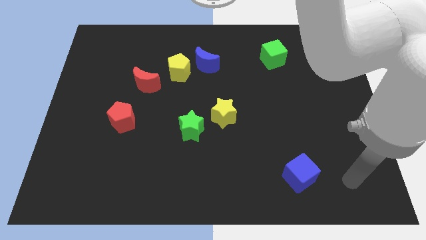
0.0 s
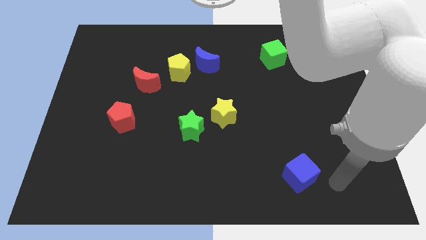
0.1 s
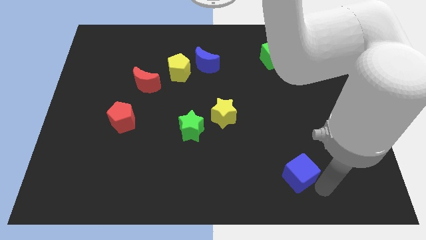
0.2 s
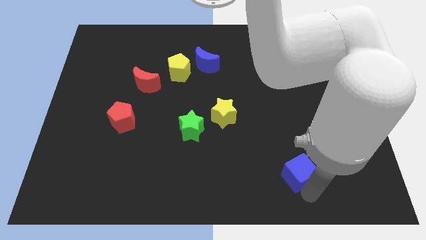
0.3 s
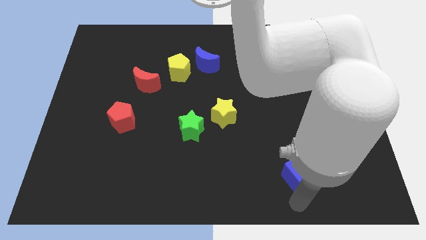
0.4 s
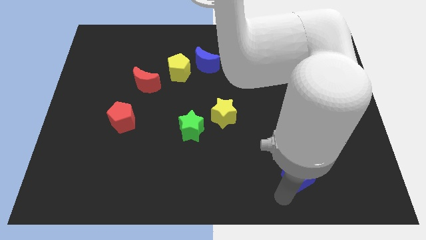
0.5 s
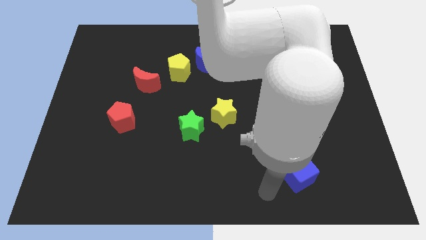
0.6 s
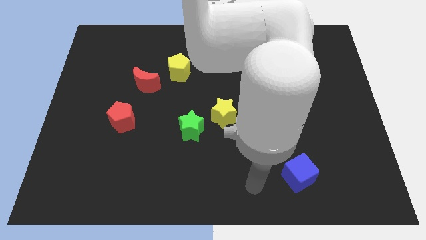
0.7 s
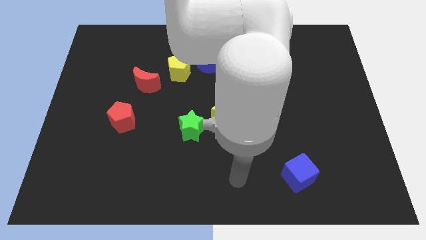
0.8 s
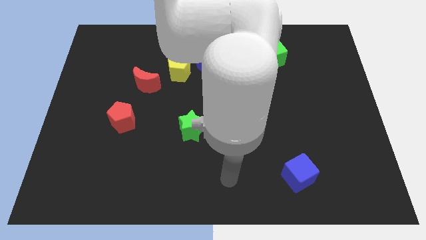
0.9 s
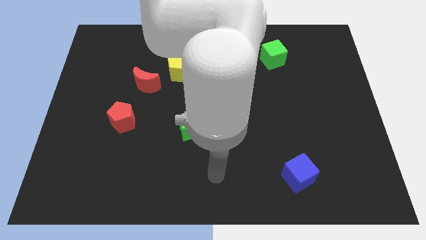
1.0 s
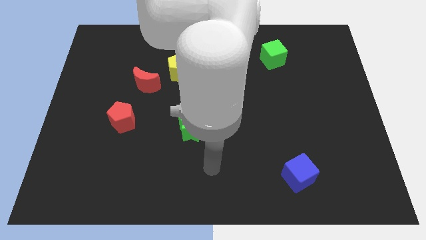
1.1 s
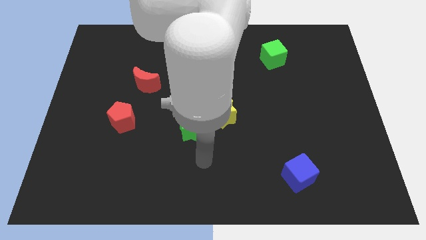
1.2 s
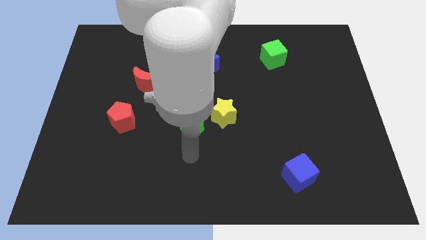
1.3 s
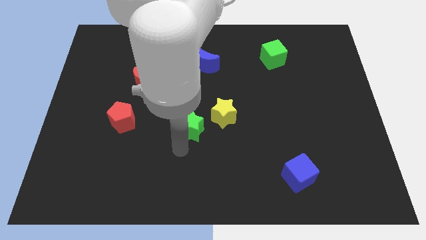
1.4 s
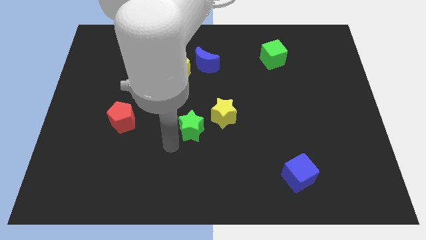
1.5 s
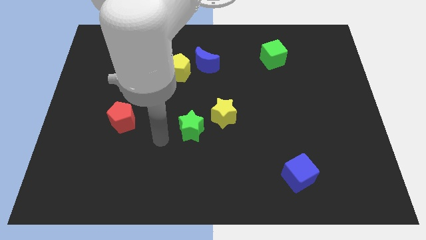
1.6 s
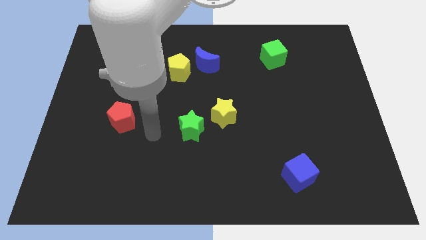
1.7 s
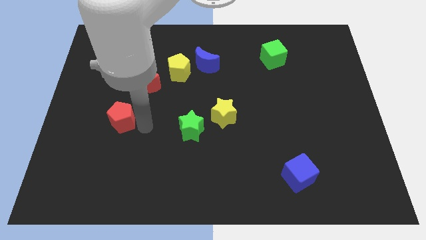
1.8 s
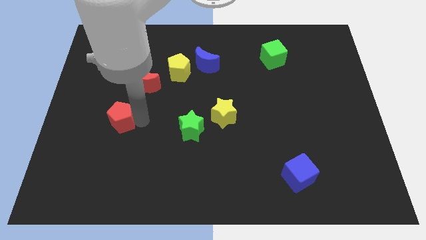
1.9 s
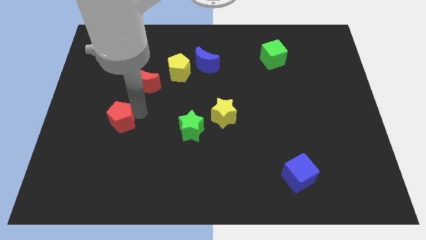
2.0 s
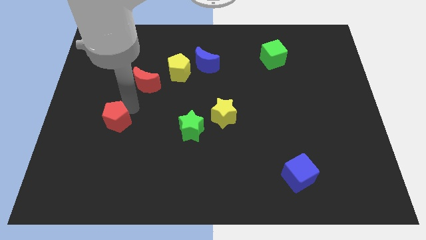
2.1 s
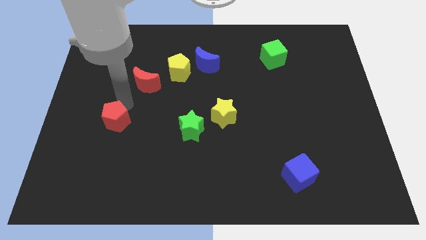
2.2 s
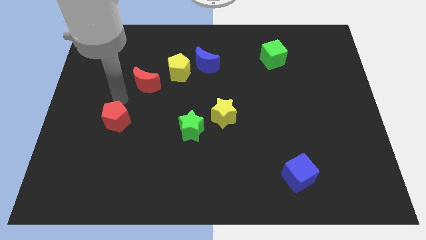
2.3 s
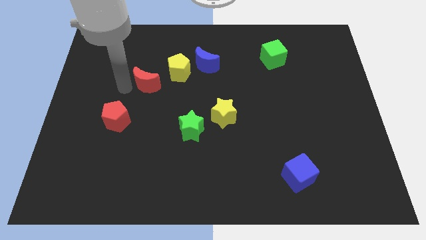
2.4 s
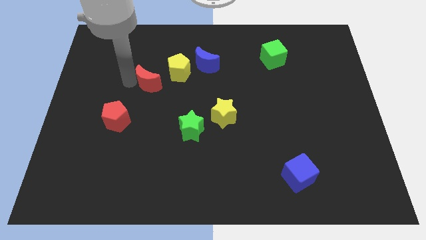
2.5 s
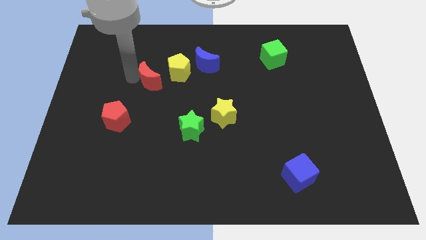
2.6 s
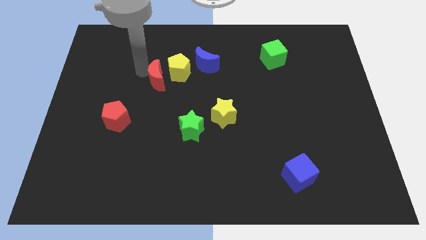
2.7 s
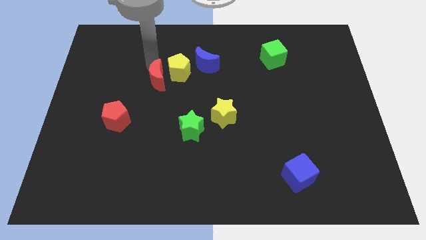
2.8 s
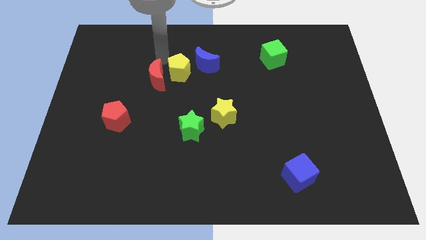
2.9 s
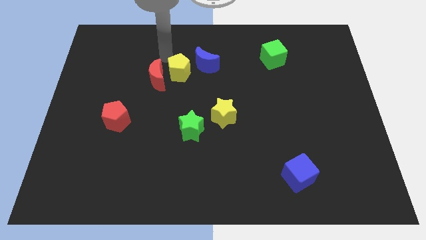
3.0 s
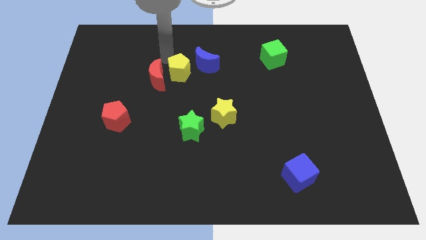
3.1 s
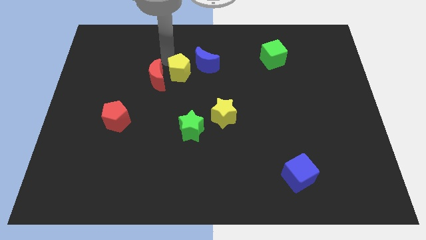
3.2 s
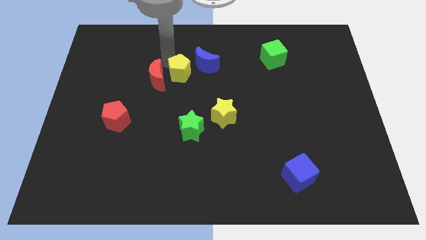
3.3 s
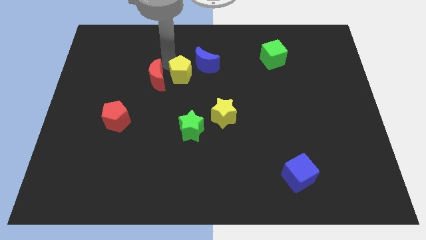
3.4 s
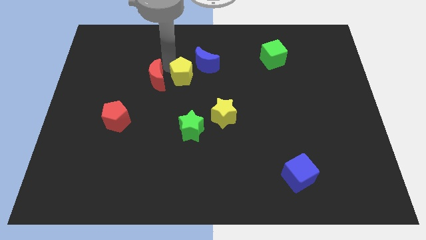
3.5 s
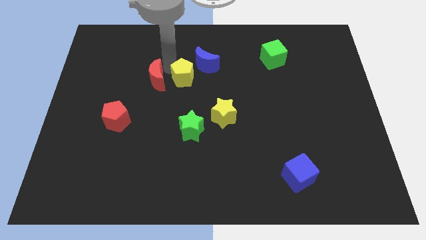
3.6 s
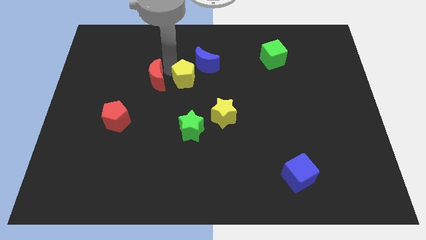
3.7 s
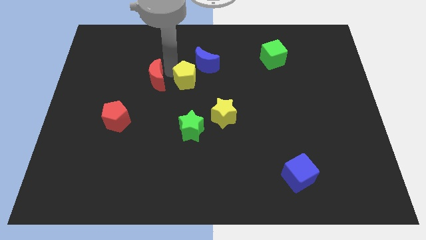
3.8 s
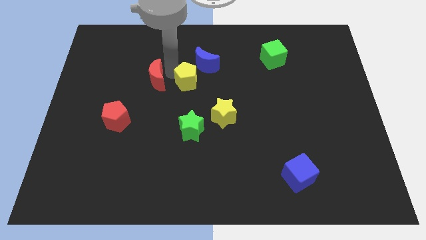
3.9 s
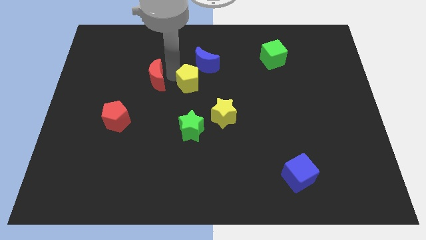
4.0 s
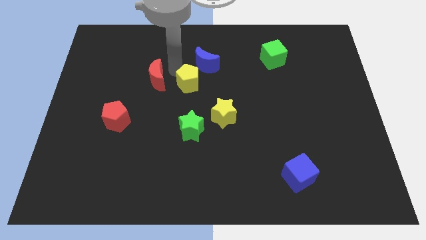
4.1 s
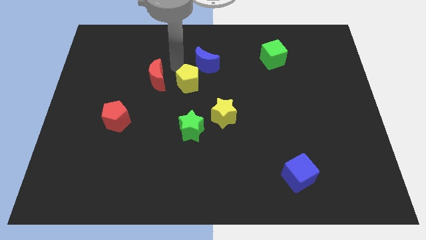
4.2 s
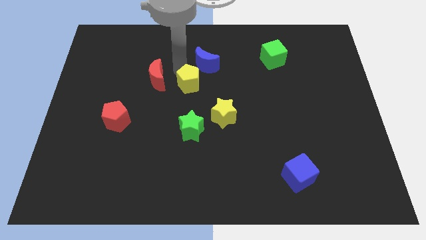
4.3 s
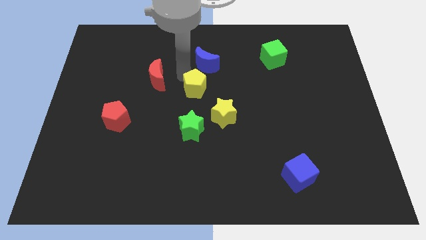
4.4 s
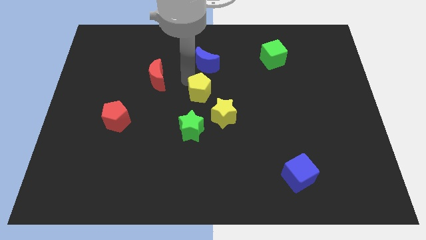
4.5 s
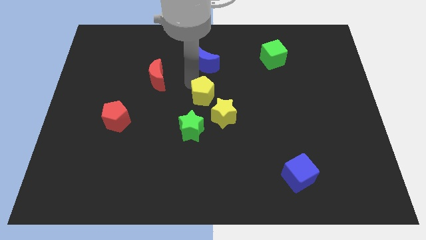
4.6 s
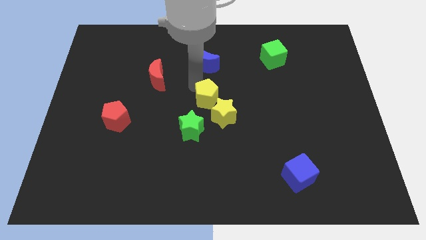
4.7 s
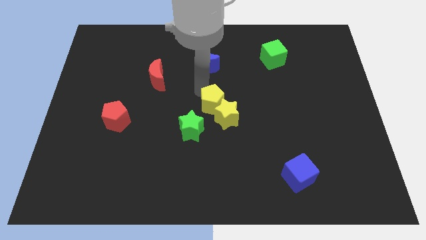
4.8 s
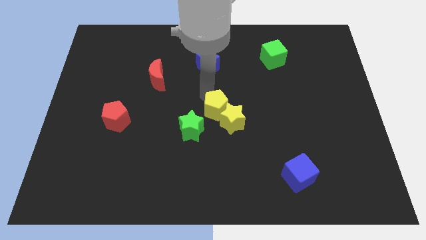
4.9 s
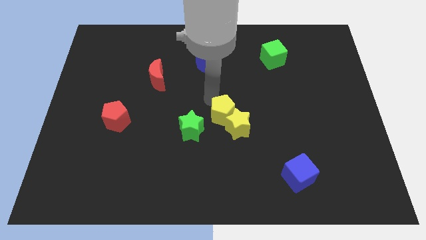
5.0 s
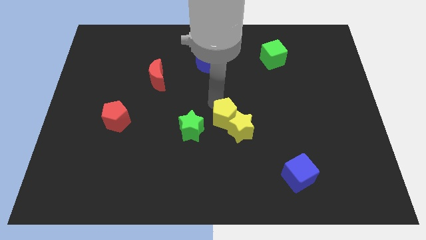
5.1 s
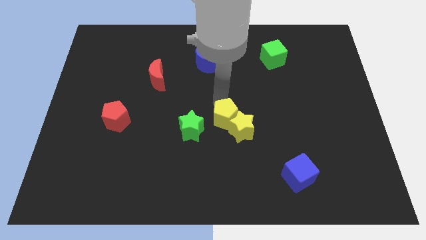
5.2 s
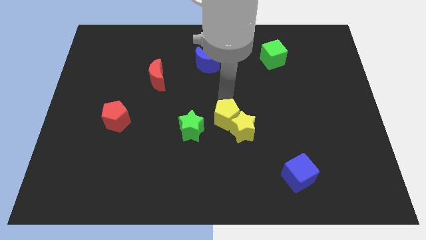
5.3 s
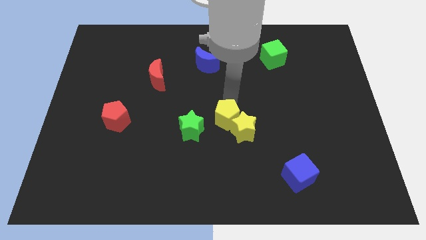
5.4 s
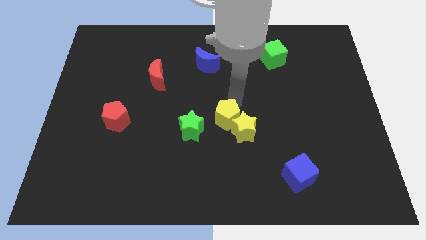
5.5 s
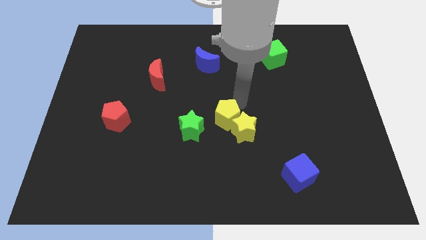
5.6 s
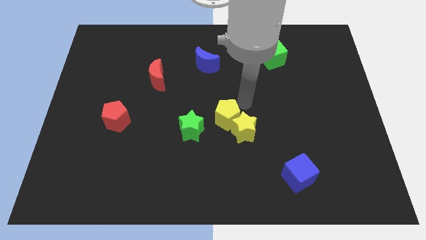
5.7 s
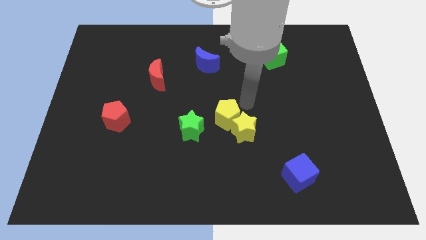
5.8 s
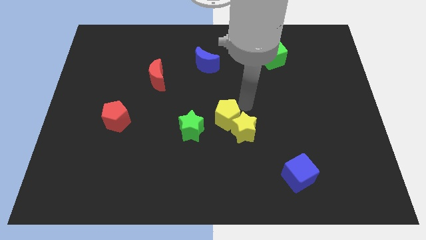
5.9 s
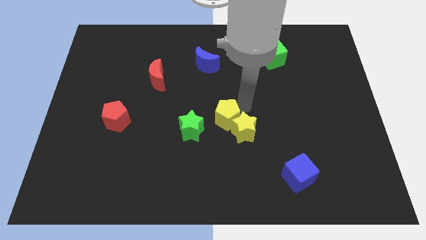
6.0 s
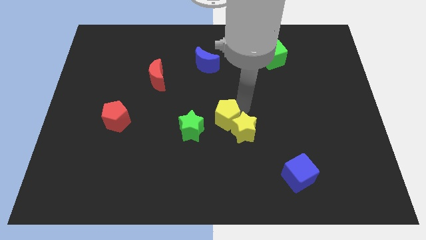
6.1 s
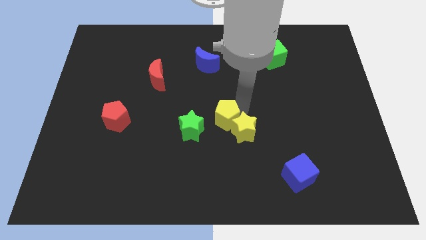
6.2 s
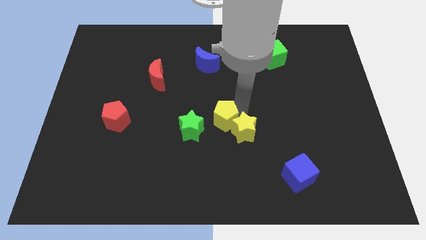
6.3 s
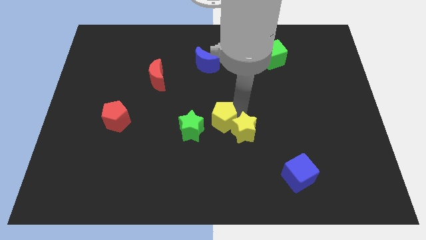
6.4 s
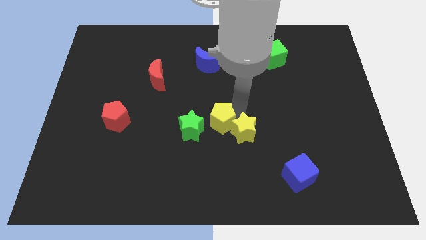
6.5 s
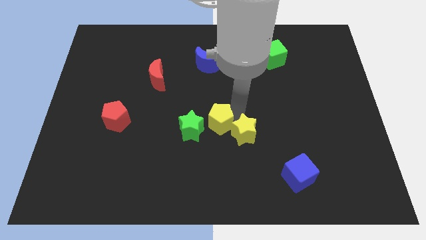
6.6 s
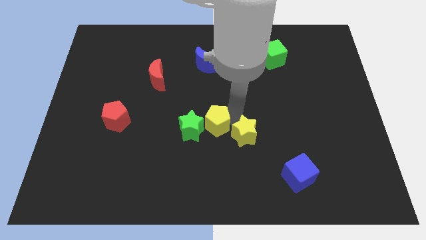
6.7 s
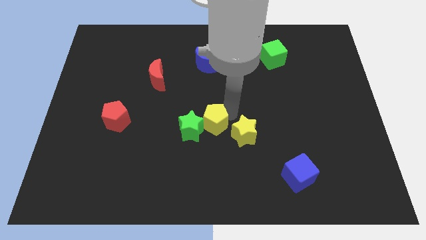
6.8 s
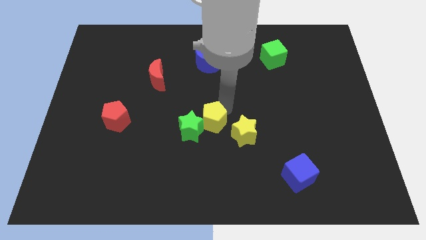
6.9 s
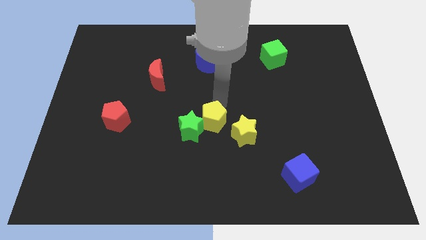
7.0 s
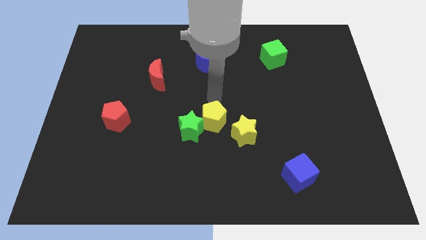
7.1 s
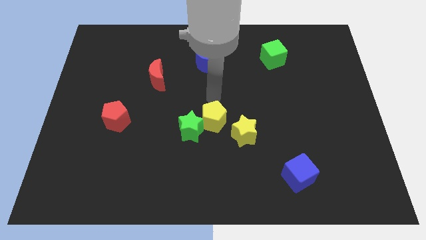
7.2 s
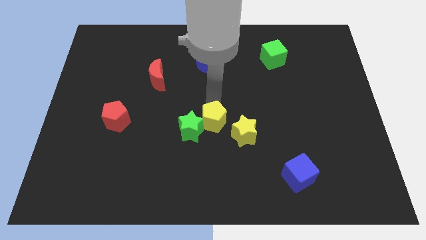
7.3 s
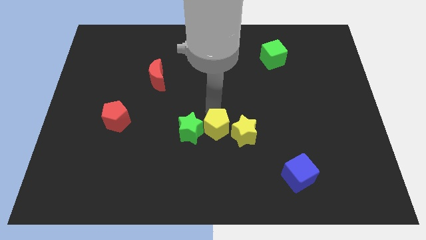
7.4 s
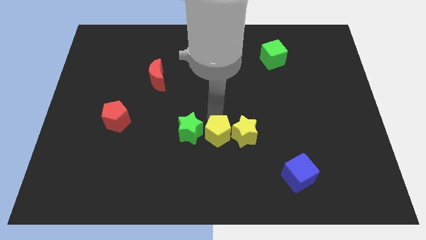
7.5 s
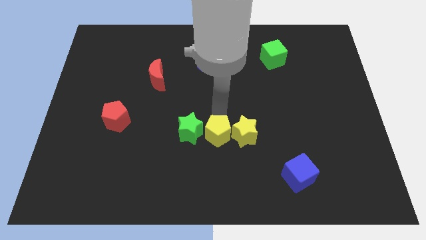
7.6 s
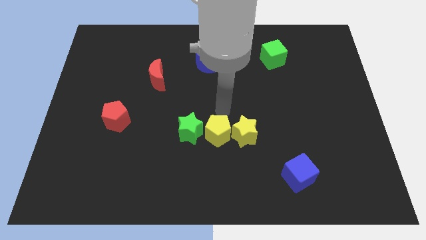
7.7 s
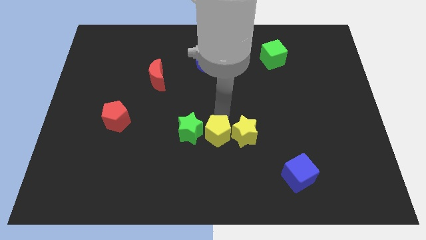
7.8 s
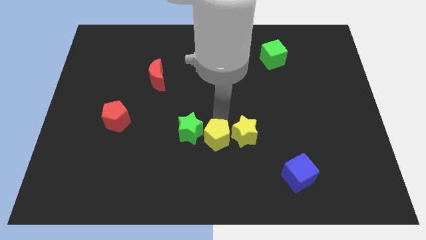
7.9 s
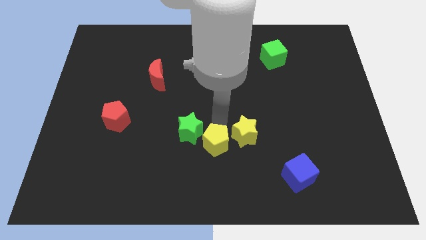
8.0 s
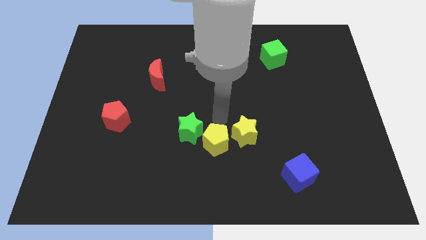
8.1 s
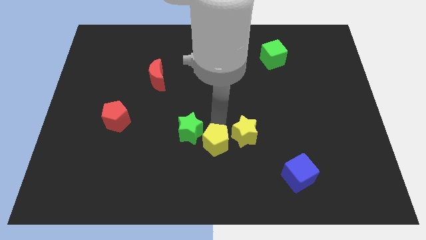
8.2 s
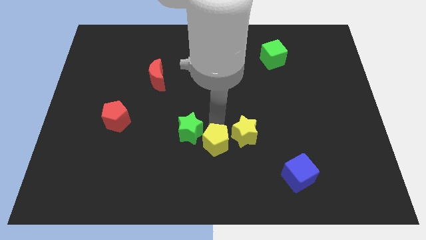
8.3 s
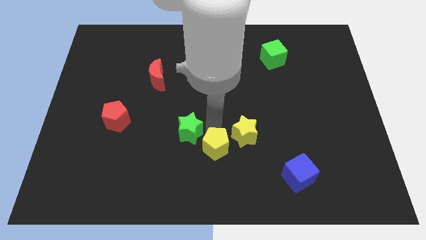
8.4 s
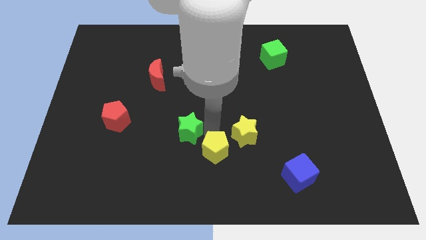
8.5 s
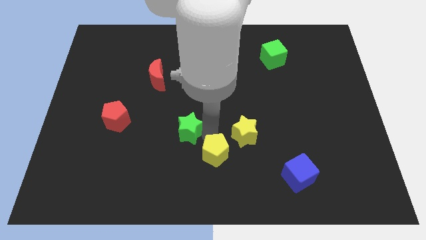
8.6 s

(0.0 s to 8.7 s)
slide the yellow pentagon to the bottom
